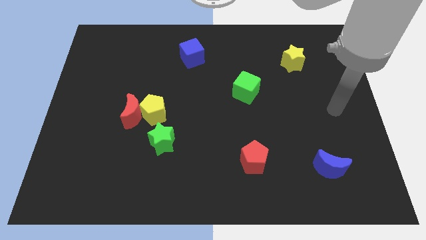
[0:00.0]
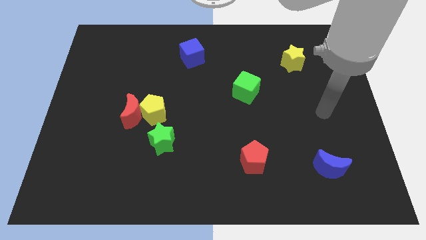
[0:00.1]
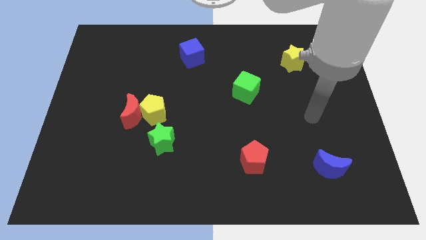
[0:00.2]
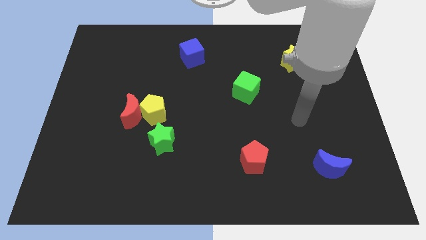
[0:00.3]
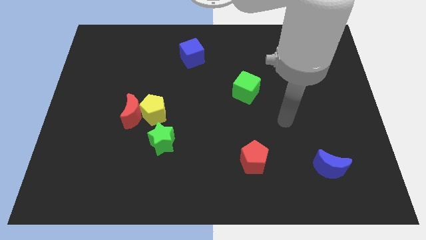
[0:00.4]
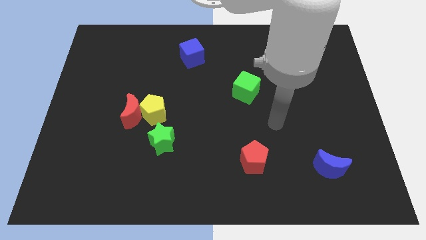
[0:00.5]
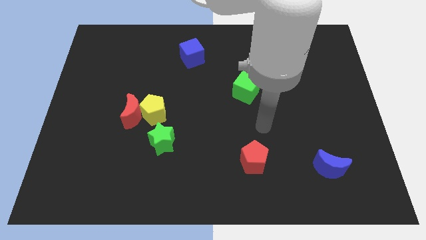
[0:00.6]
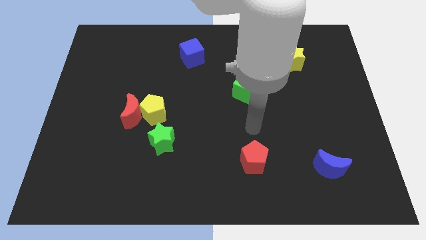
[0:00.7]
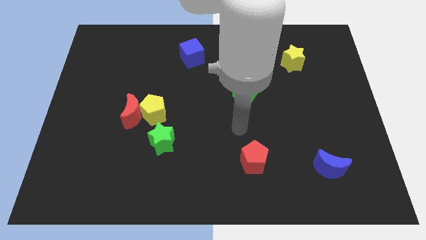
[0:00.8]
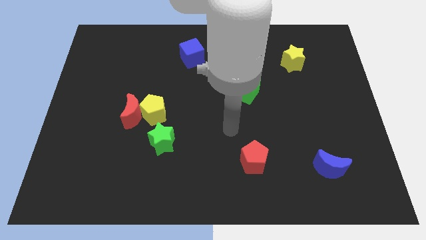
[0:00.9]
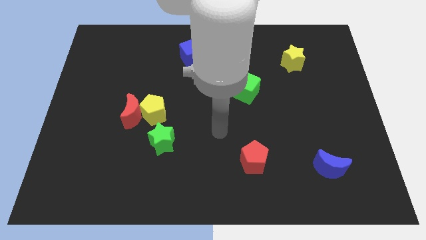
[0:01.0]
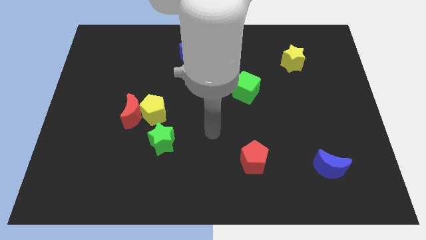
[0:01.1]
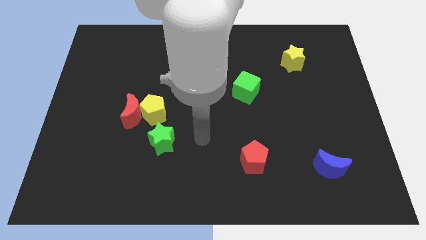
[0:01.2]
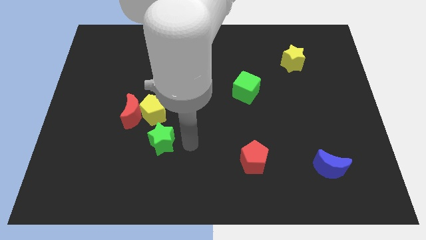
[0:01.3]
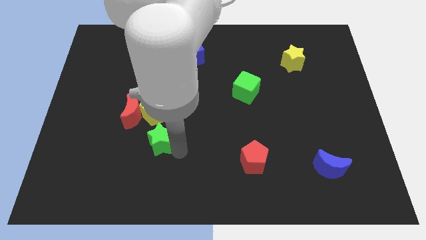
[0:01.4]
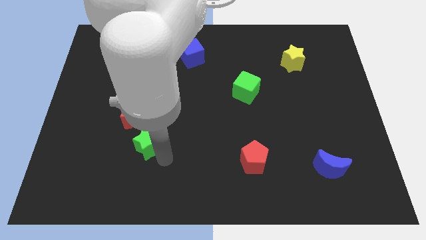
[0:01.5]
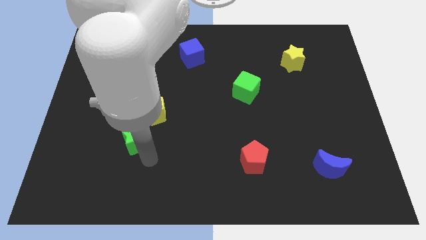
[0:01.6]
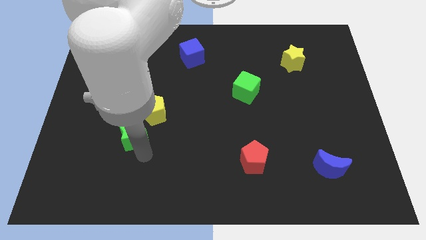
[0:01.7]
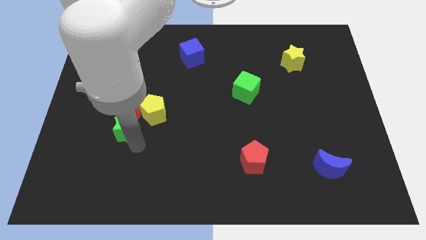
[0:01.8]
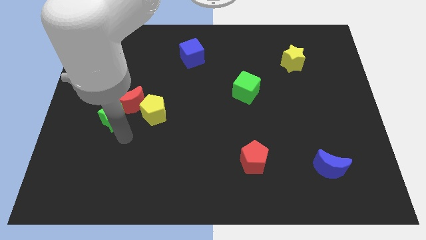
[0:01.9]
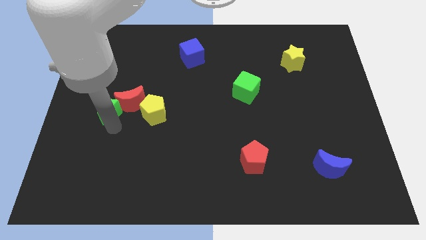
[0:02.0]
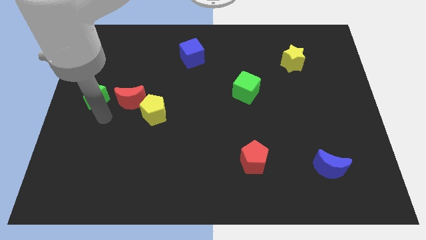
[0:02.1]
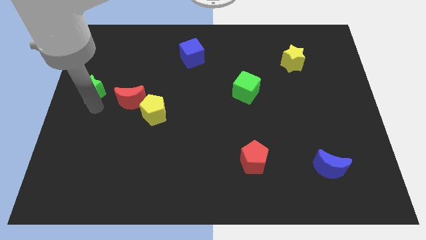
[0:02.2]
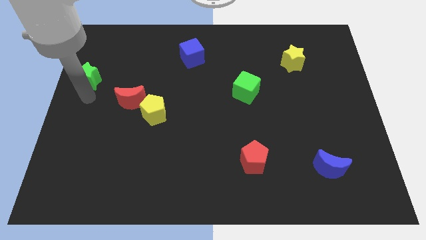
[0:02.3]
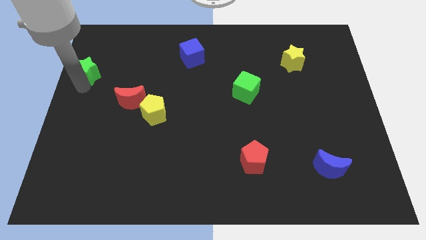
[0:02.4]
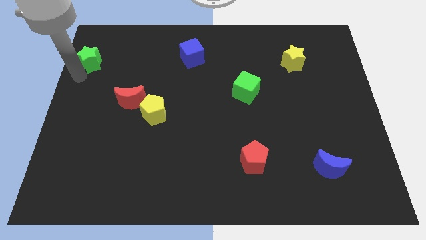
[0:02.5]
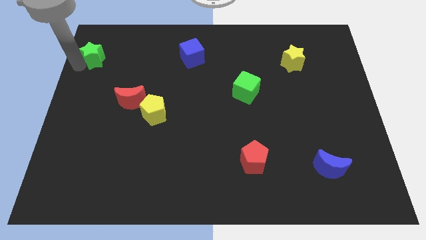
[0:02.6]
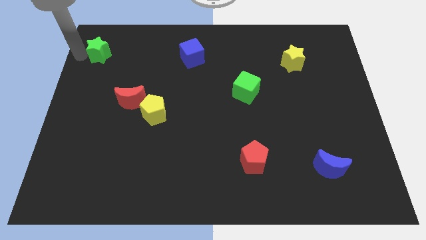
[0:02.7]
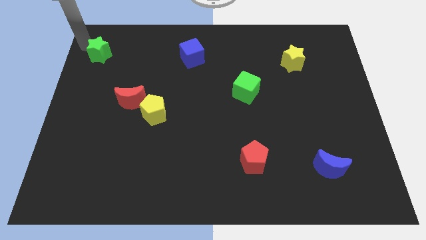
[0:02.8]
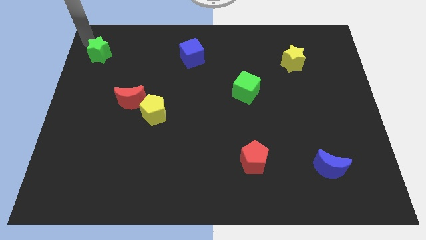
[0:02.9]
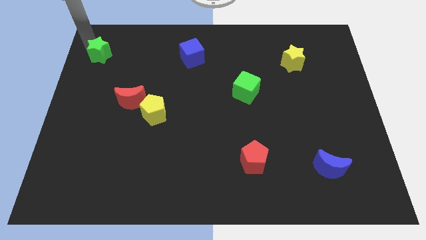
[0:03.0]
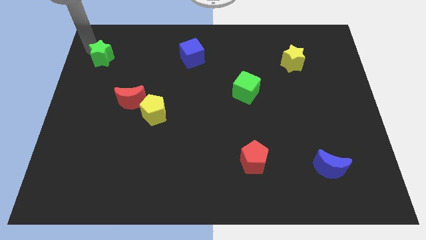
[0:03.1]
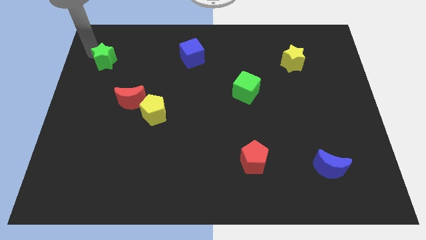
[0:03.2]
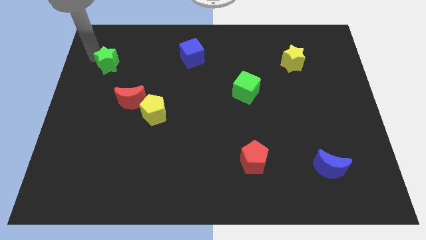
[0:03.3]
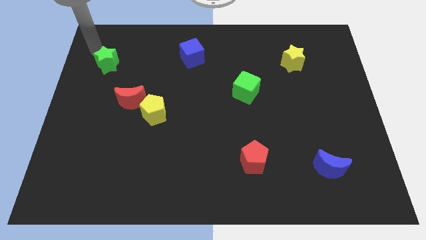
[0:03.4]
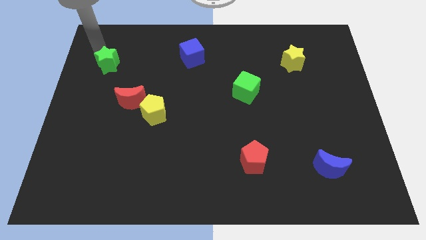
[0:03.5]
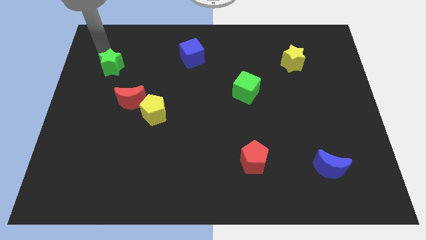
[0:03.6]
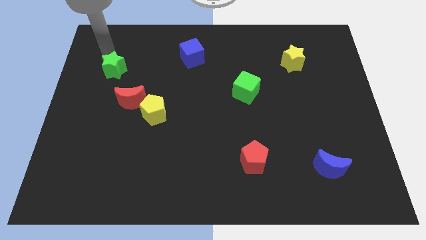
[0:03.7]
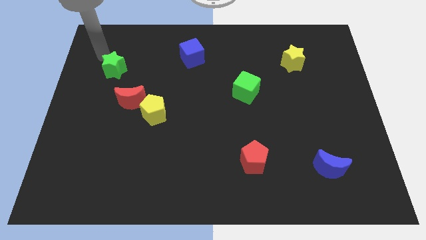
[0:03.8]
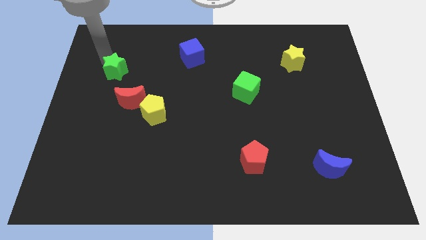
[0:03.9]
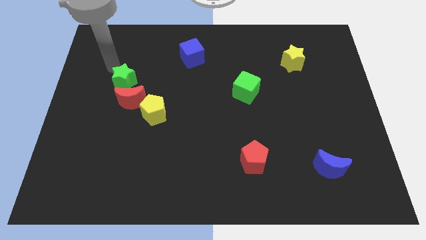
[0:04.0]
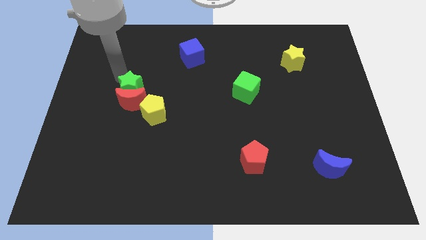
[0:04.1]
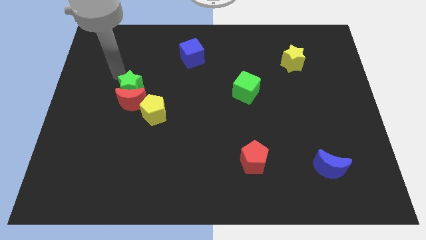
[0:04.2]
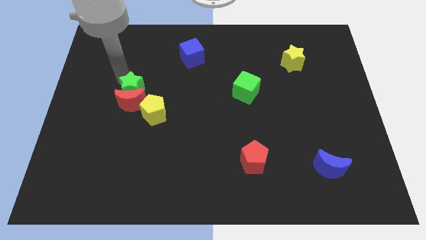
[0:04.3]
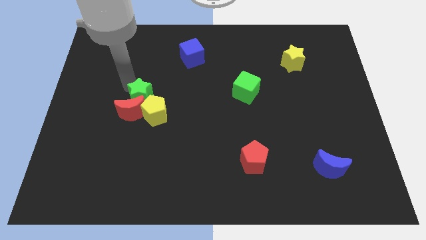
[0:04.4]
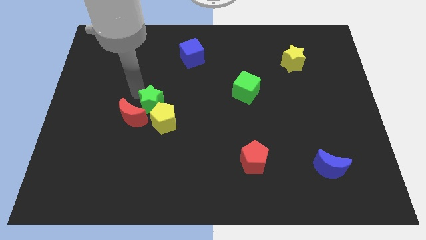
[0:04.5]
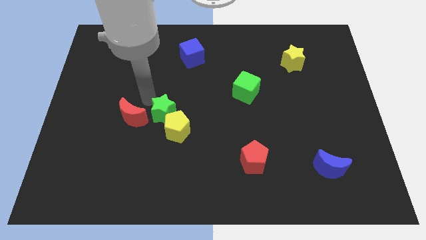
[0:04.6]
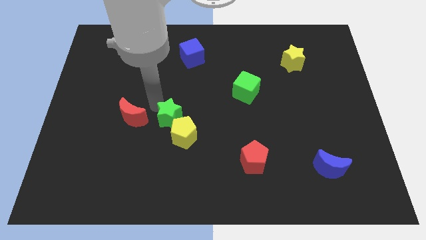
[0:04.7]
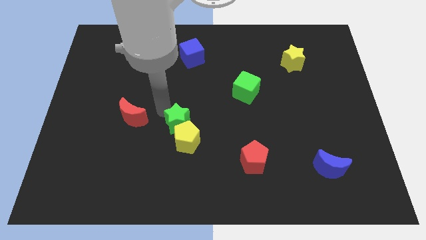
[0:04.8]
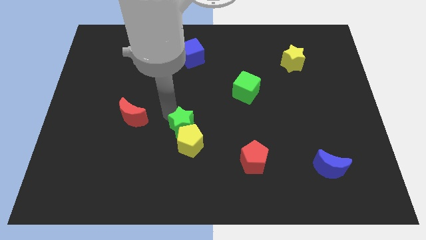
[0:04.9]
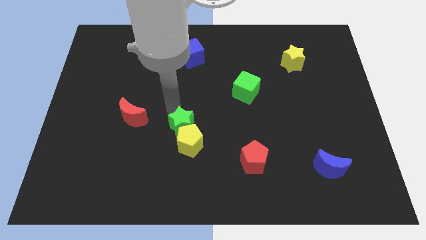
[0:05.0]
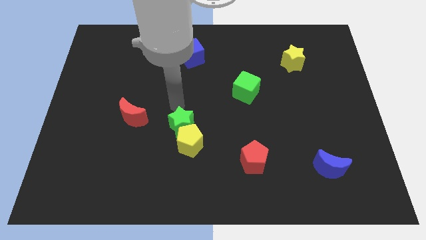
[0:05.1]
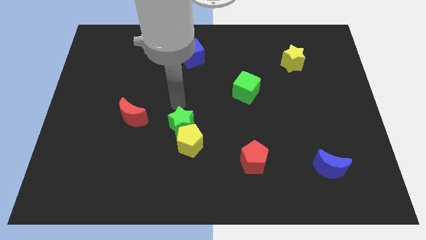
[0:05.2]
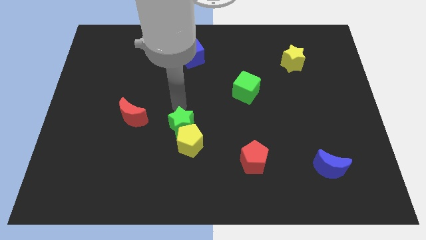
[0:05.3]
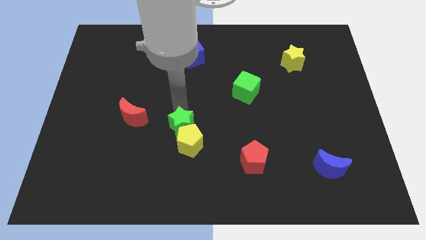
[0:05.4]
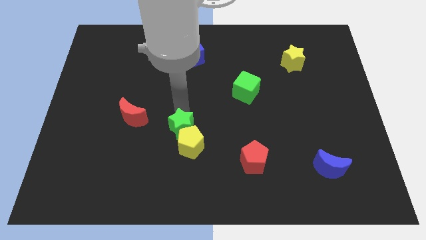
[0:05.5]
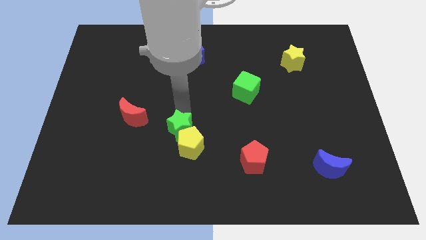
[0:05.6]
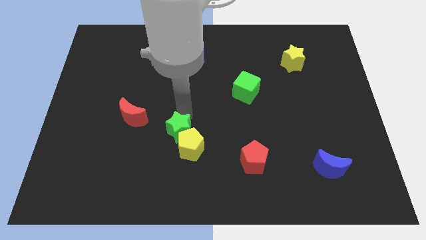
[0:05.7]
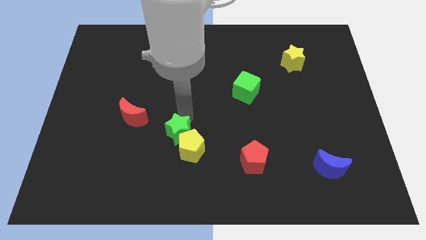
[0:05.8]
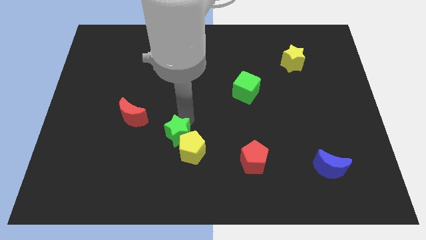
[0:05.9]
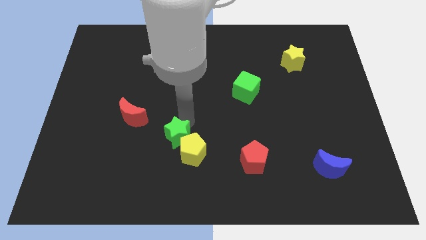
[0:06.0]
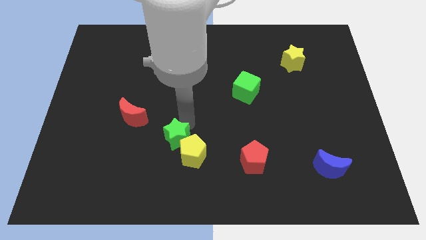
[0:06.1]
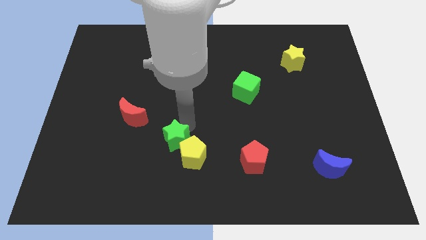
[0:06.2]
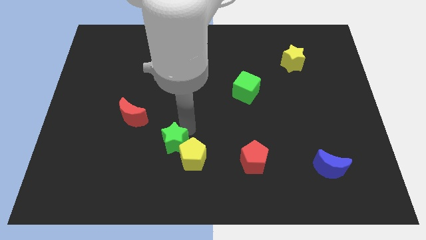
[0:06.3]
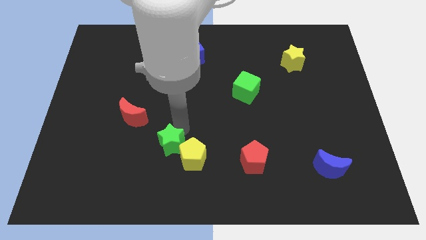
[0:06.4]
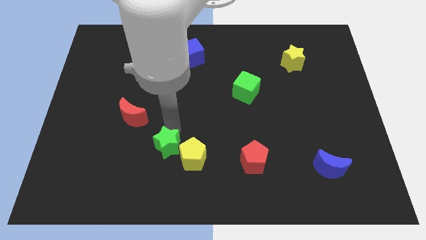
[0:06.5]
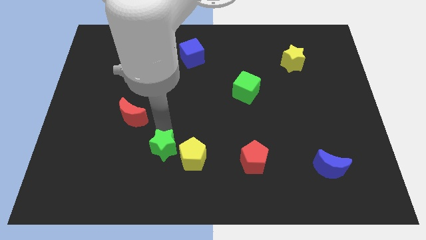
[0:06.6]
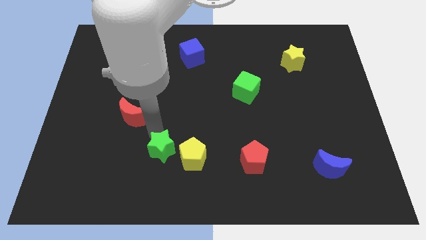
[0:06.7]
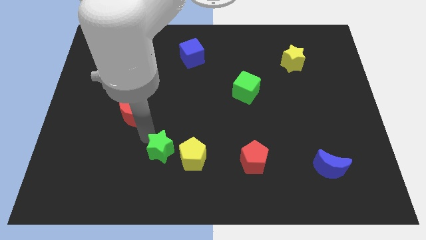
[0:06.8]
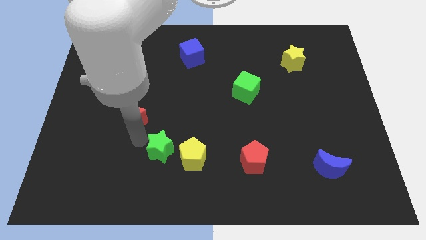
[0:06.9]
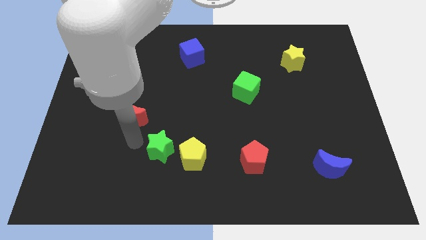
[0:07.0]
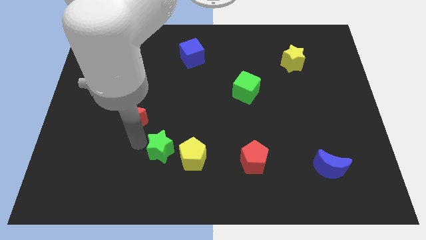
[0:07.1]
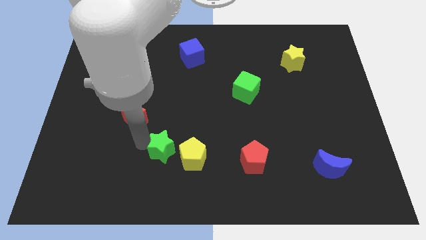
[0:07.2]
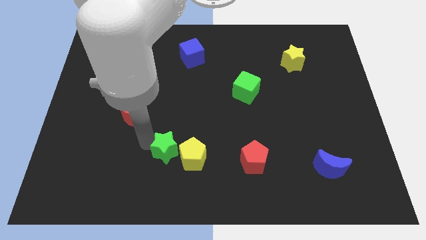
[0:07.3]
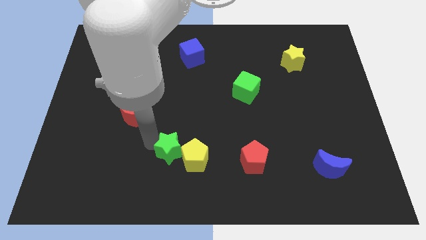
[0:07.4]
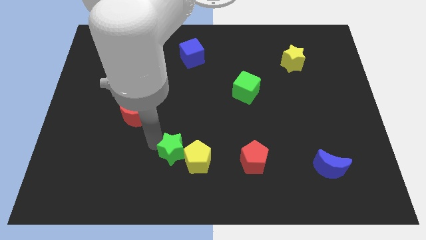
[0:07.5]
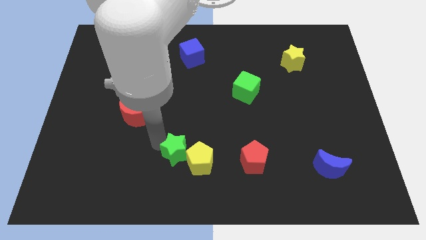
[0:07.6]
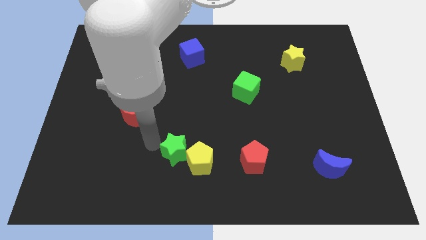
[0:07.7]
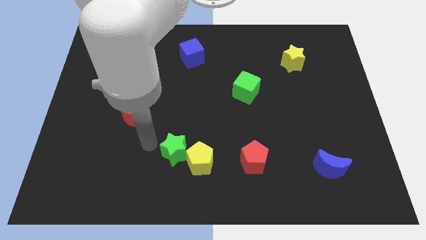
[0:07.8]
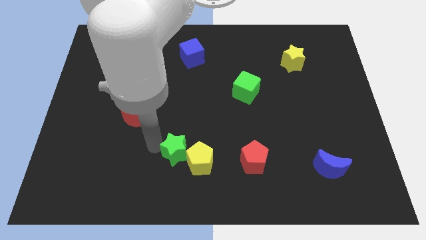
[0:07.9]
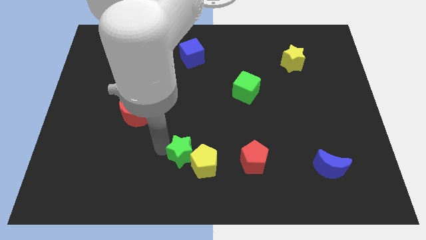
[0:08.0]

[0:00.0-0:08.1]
move the green star to the left side of the red pentagon
